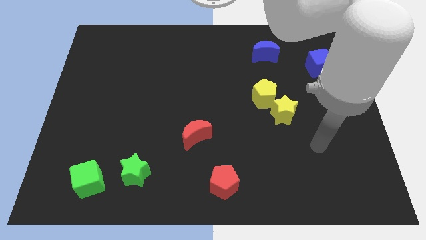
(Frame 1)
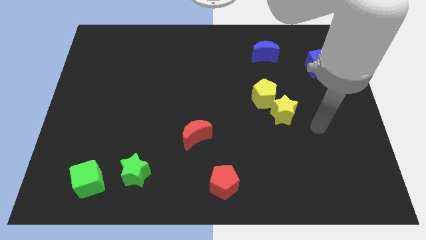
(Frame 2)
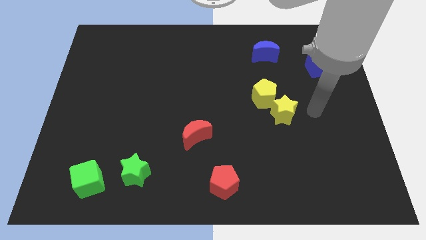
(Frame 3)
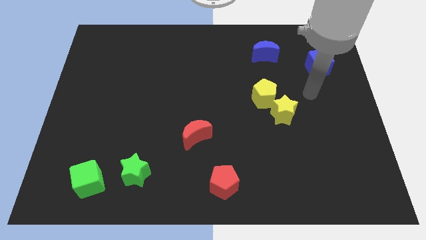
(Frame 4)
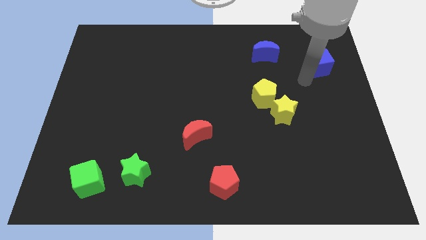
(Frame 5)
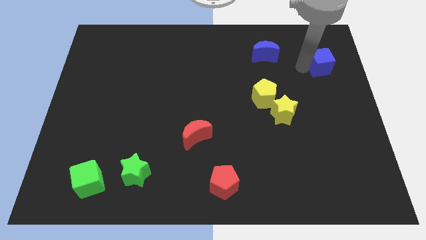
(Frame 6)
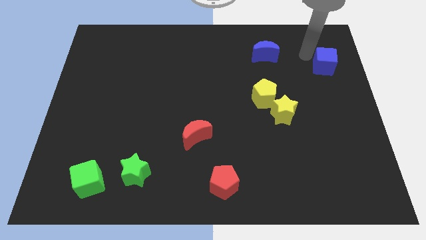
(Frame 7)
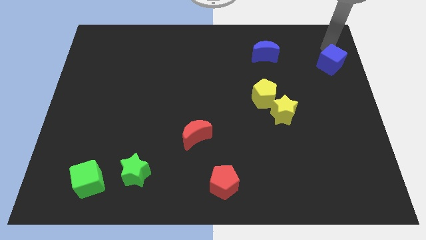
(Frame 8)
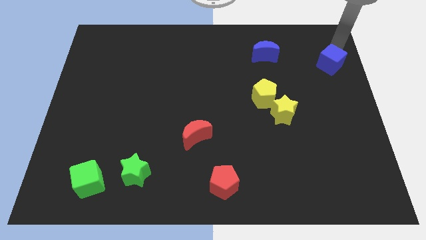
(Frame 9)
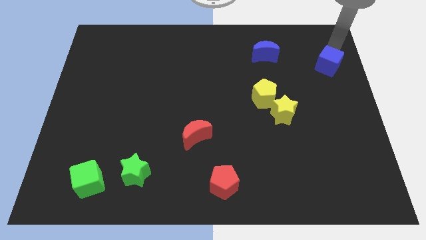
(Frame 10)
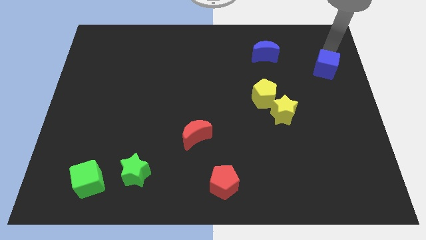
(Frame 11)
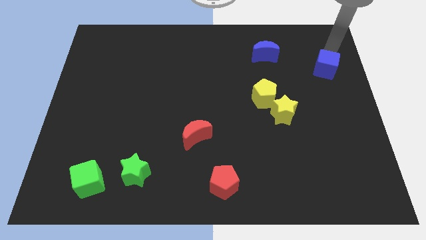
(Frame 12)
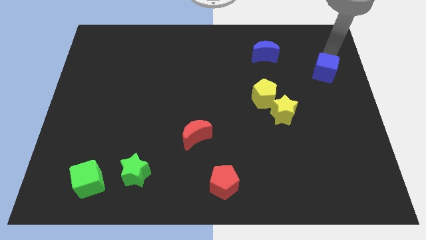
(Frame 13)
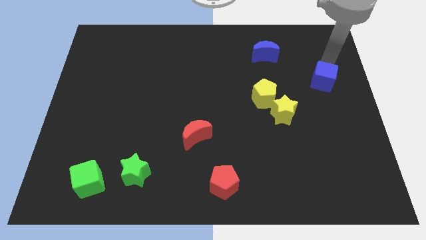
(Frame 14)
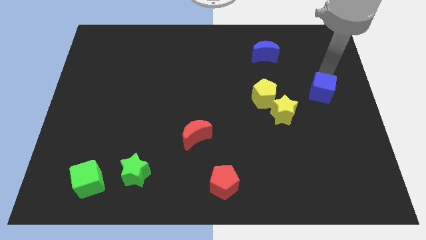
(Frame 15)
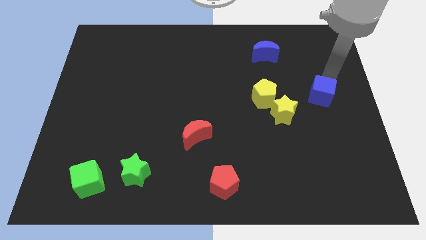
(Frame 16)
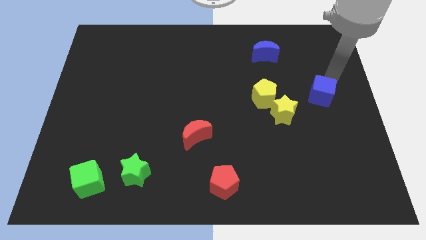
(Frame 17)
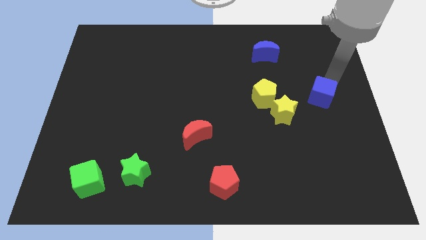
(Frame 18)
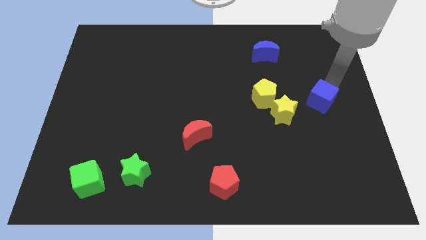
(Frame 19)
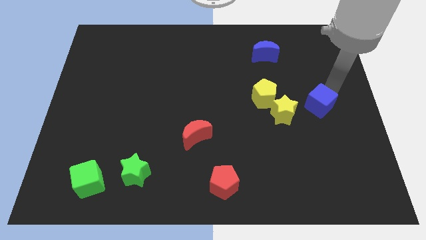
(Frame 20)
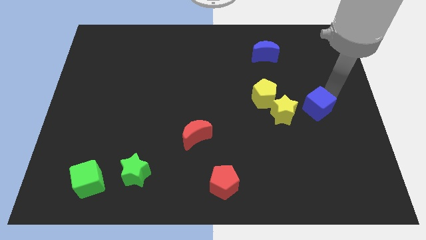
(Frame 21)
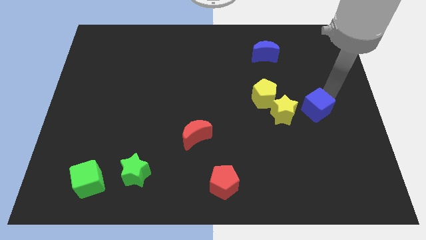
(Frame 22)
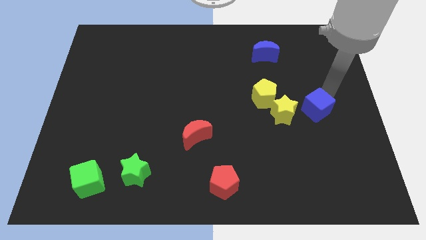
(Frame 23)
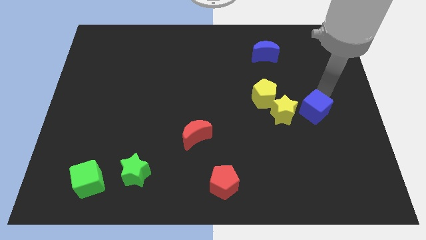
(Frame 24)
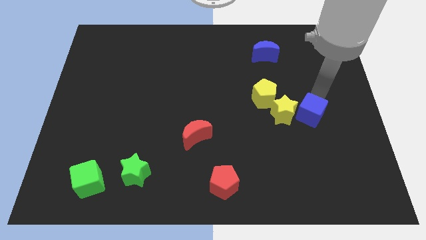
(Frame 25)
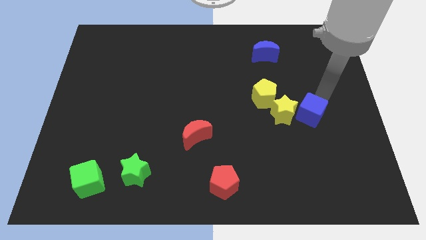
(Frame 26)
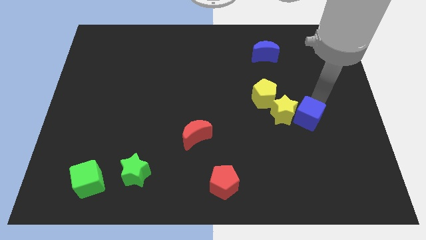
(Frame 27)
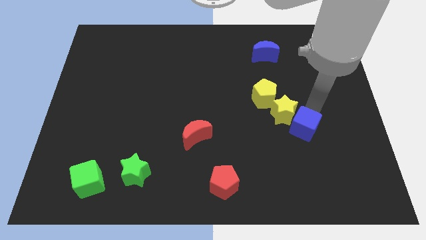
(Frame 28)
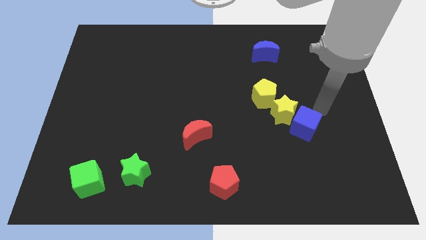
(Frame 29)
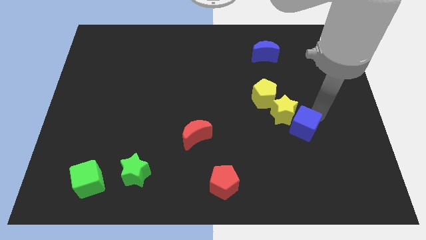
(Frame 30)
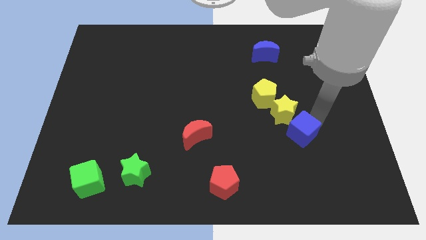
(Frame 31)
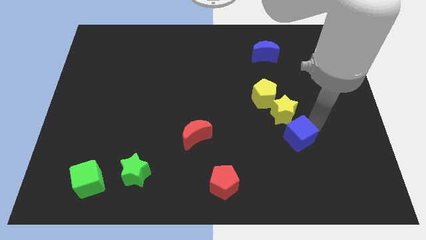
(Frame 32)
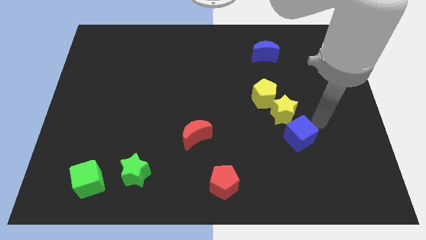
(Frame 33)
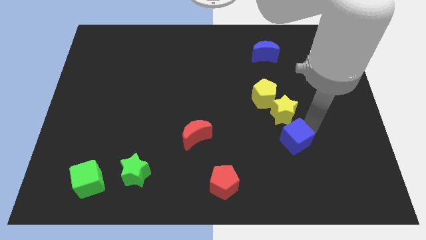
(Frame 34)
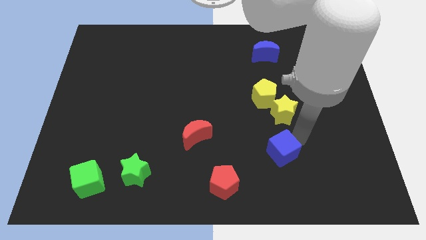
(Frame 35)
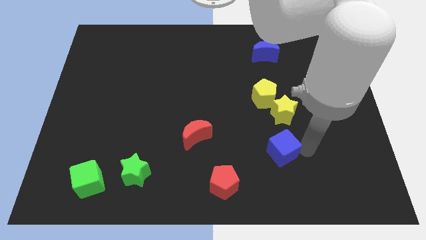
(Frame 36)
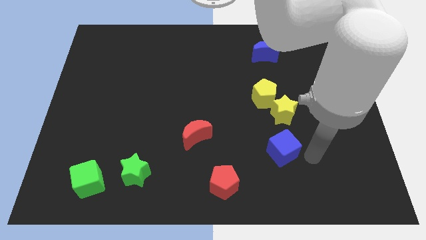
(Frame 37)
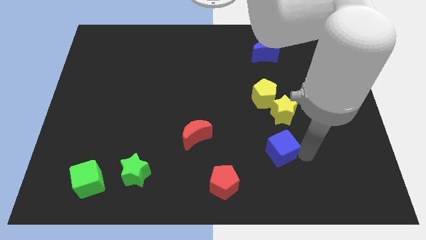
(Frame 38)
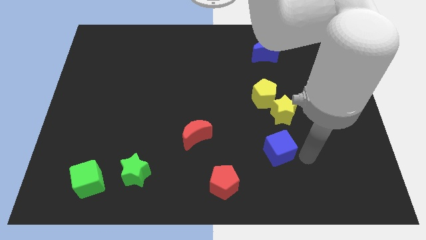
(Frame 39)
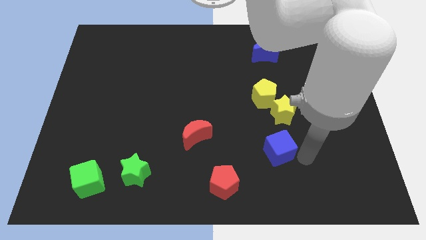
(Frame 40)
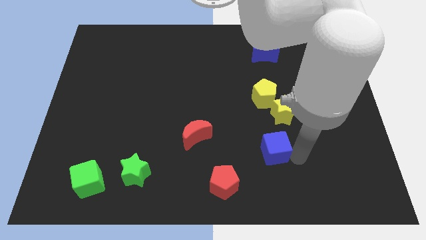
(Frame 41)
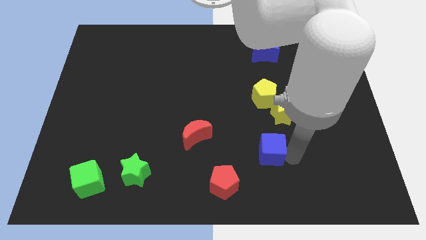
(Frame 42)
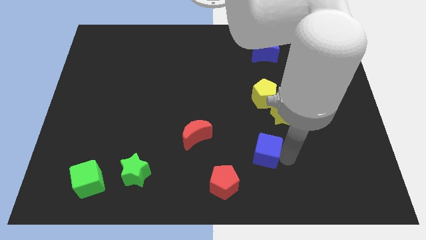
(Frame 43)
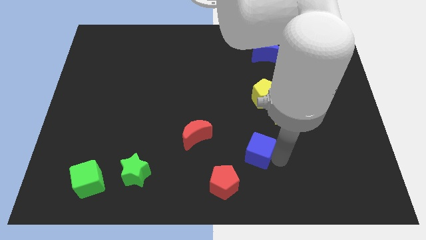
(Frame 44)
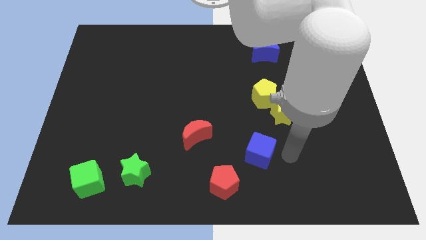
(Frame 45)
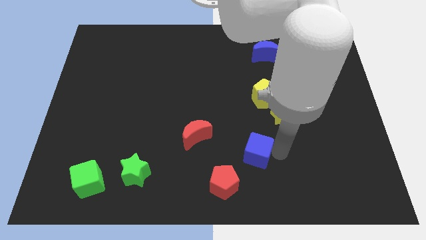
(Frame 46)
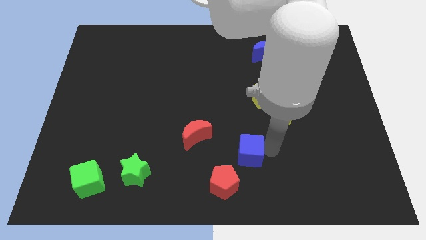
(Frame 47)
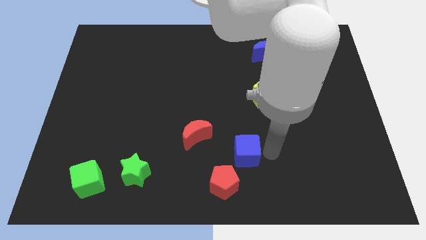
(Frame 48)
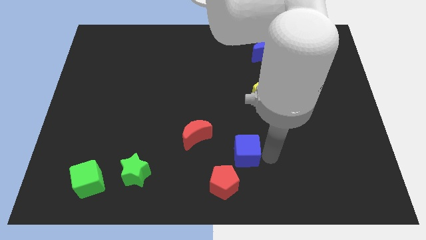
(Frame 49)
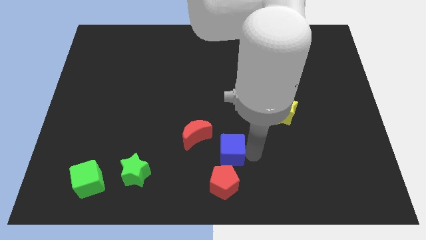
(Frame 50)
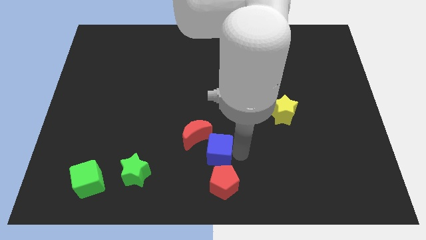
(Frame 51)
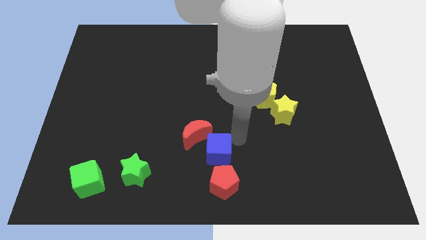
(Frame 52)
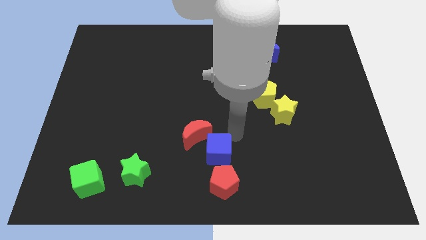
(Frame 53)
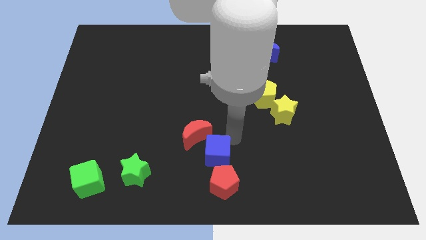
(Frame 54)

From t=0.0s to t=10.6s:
push the blue cube below the red moon

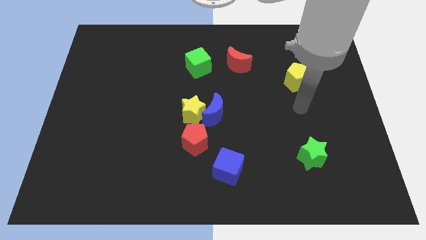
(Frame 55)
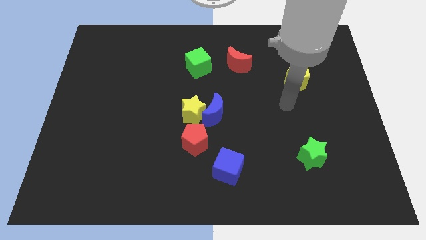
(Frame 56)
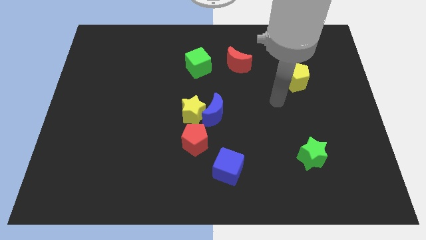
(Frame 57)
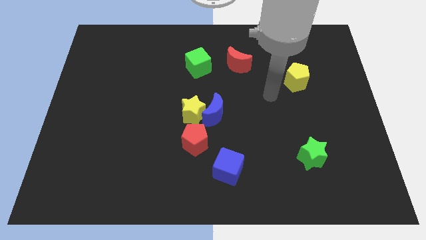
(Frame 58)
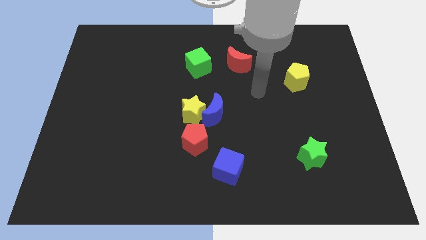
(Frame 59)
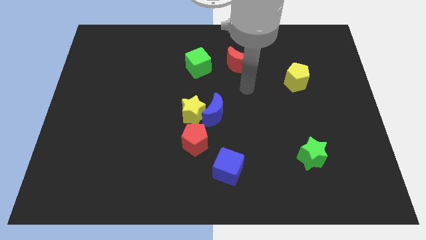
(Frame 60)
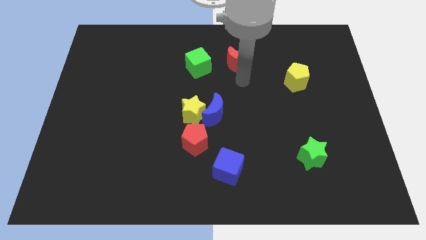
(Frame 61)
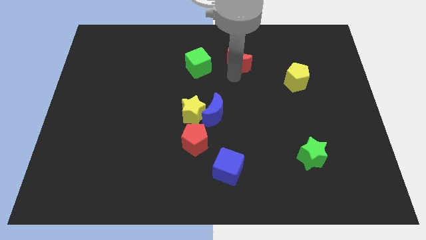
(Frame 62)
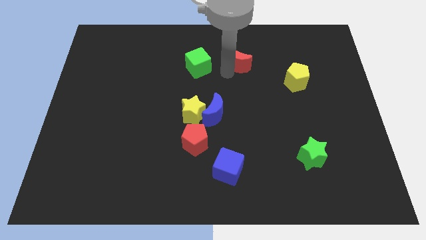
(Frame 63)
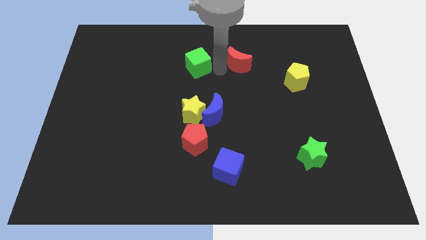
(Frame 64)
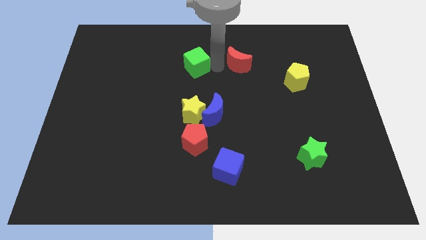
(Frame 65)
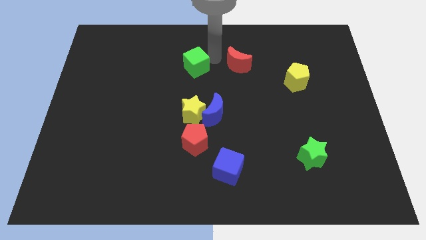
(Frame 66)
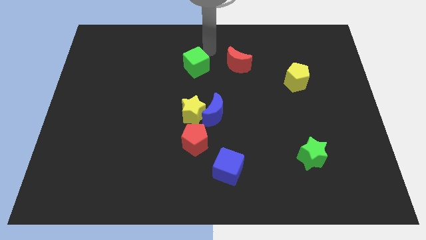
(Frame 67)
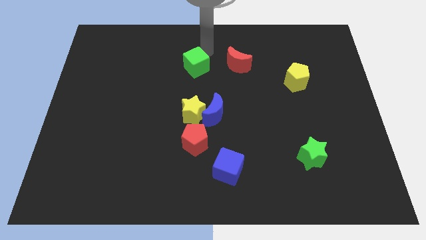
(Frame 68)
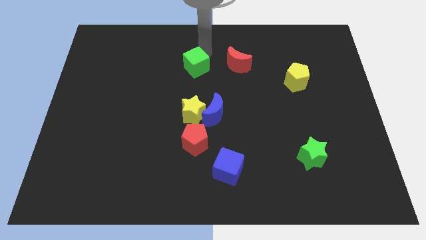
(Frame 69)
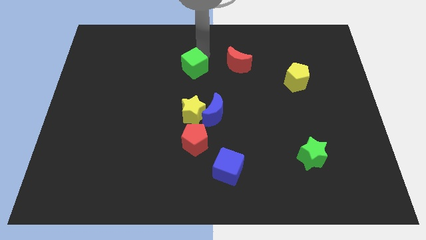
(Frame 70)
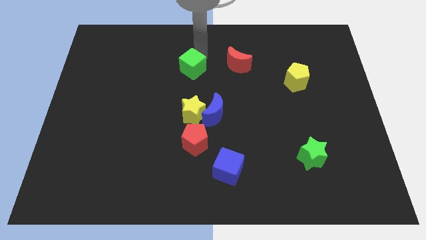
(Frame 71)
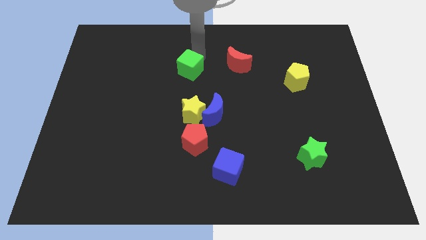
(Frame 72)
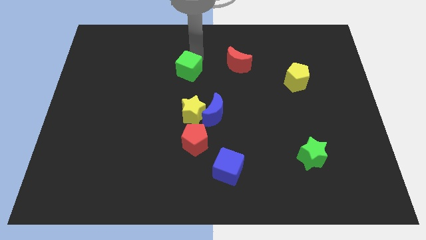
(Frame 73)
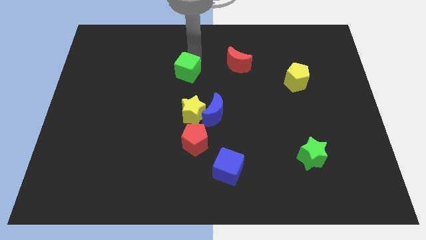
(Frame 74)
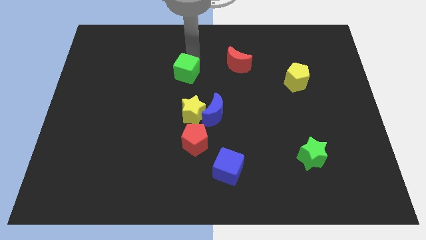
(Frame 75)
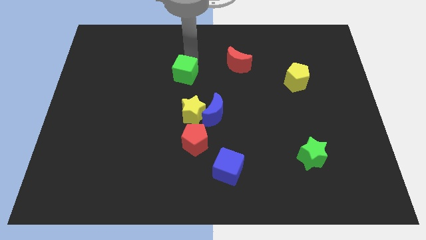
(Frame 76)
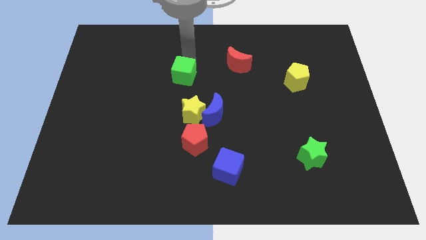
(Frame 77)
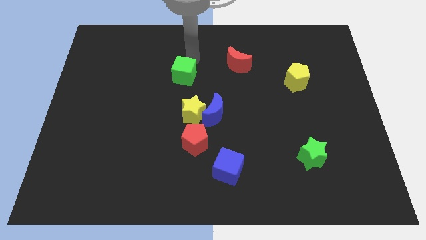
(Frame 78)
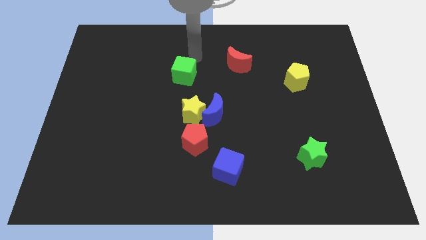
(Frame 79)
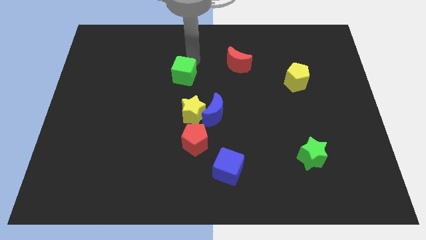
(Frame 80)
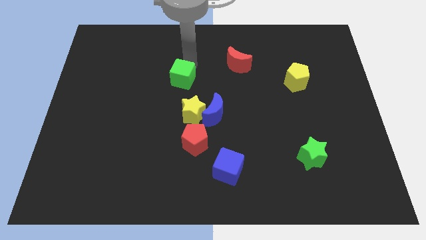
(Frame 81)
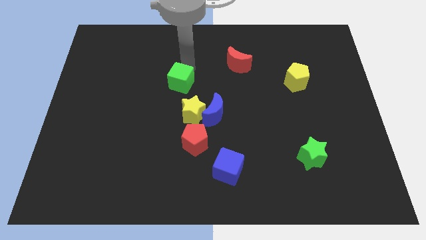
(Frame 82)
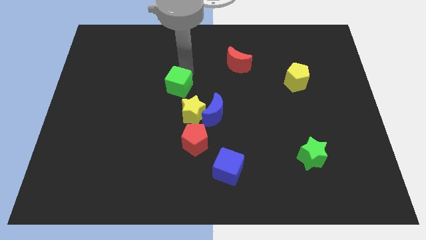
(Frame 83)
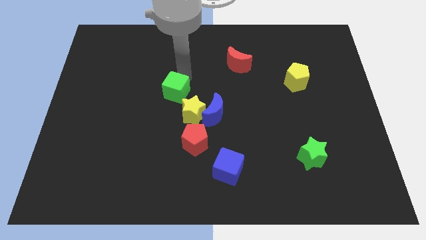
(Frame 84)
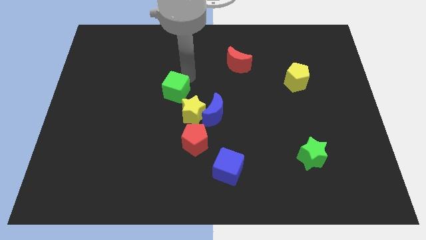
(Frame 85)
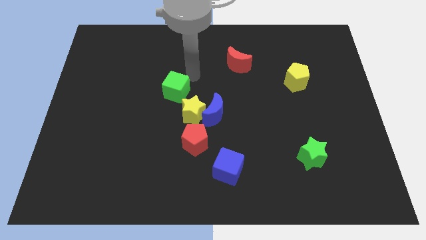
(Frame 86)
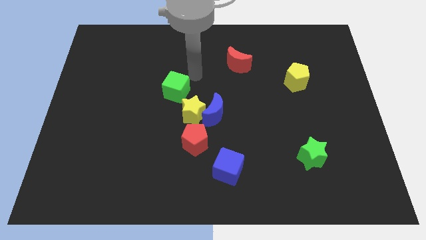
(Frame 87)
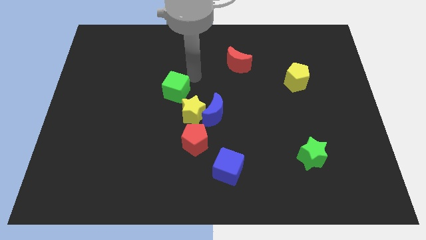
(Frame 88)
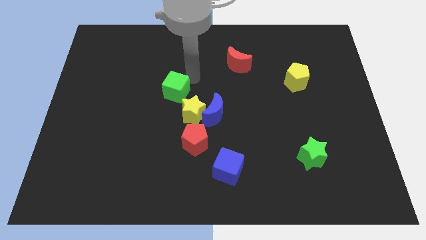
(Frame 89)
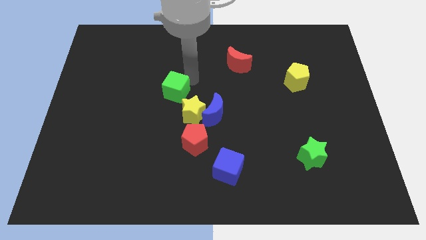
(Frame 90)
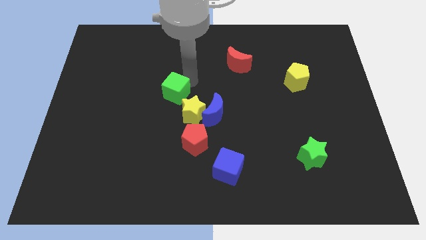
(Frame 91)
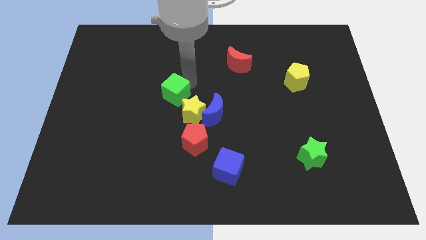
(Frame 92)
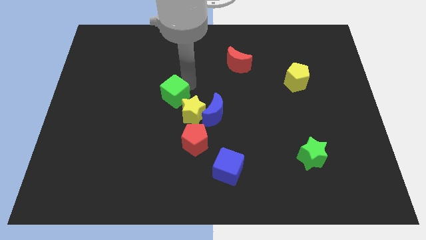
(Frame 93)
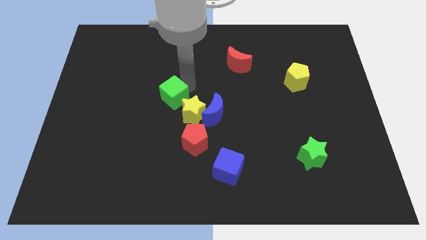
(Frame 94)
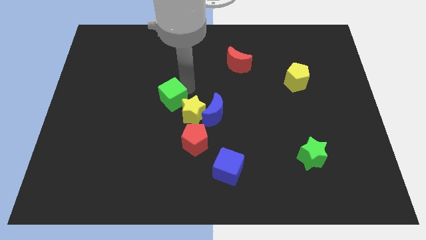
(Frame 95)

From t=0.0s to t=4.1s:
move the green cube to the left of the yellow star
